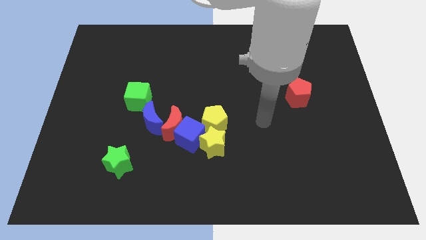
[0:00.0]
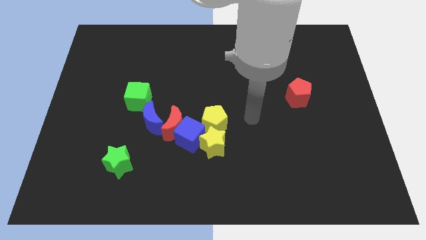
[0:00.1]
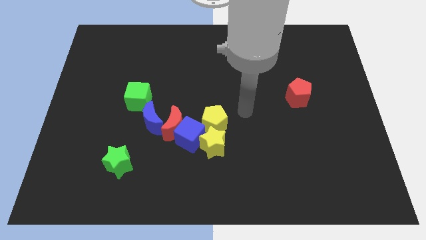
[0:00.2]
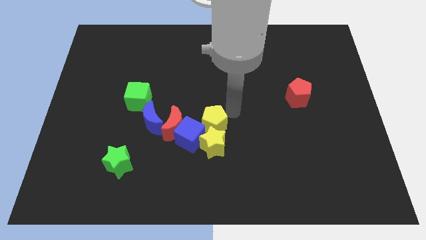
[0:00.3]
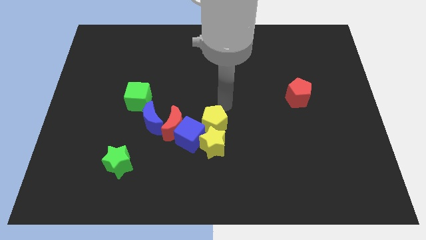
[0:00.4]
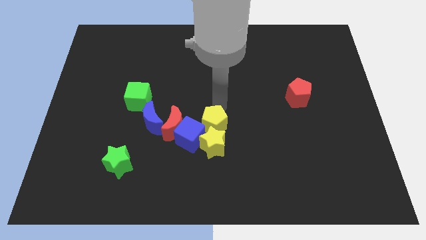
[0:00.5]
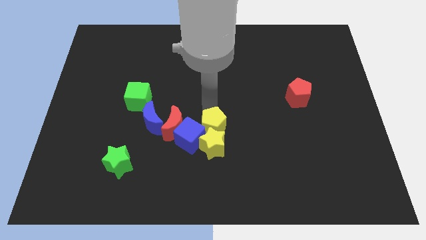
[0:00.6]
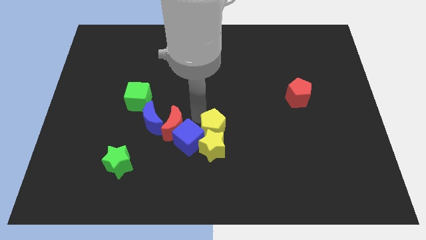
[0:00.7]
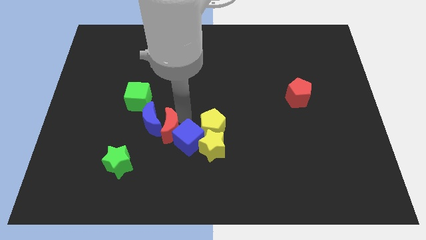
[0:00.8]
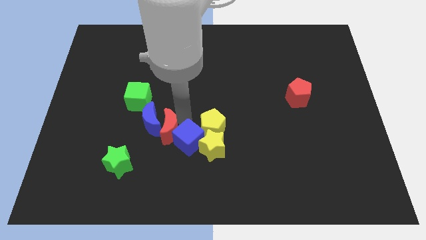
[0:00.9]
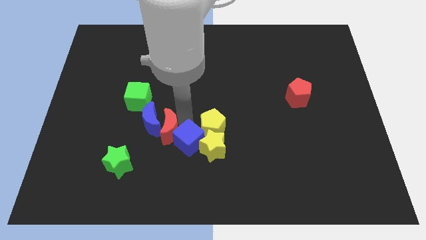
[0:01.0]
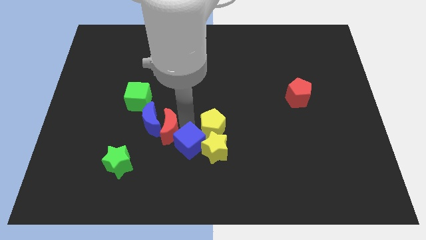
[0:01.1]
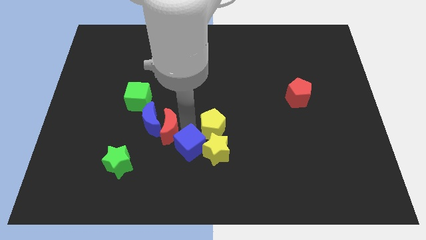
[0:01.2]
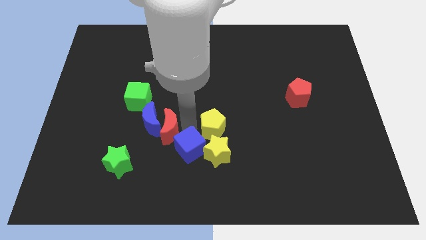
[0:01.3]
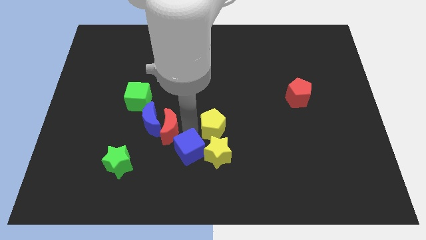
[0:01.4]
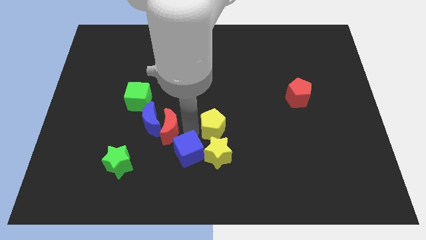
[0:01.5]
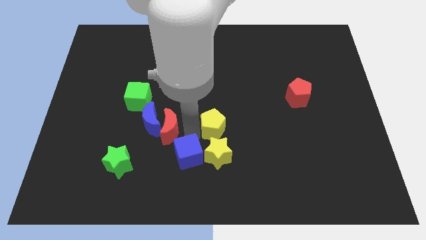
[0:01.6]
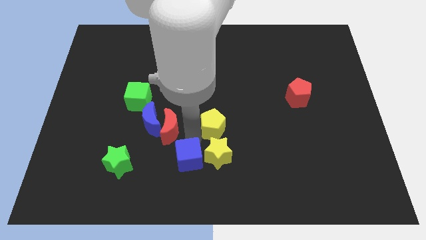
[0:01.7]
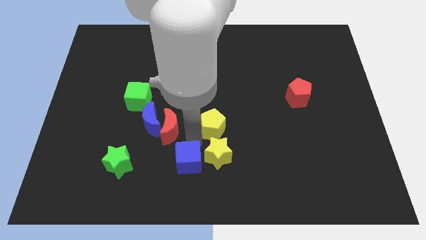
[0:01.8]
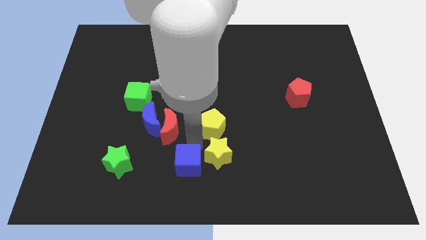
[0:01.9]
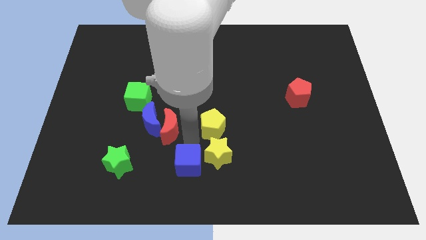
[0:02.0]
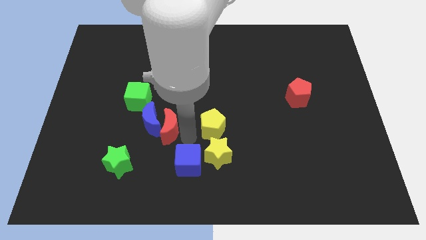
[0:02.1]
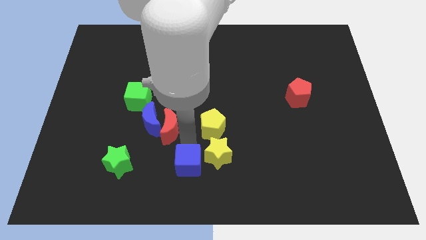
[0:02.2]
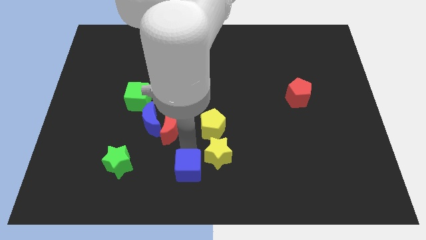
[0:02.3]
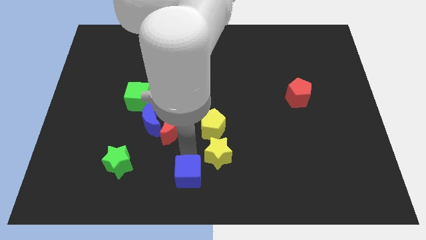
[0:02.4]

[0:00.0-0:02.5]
move the blue cube away from the group

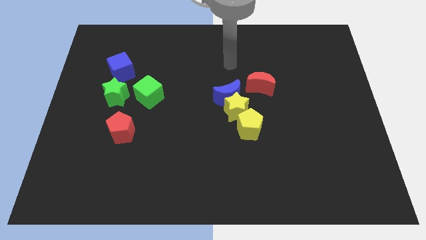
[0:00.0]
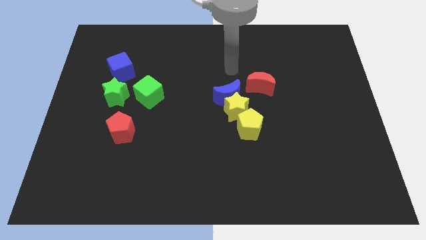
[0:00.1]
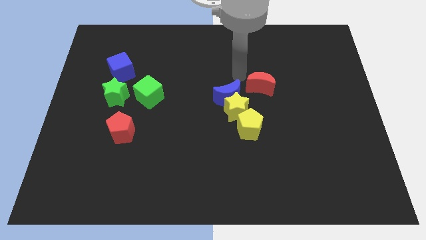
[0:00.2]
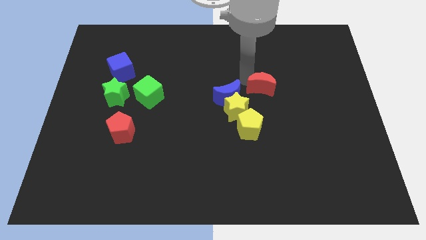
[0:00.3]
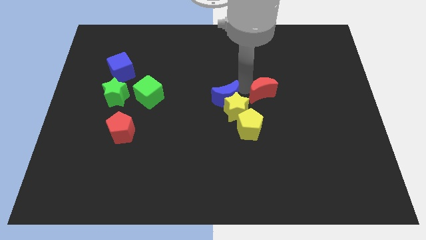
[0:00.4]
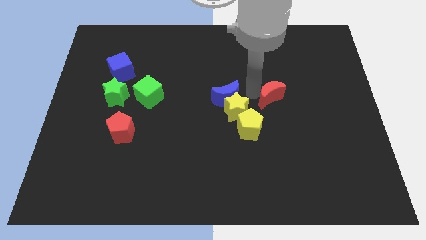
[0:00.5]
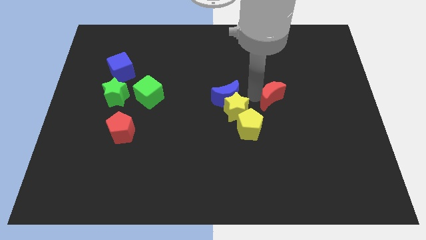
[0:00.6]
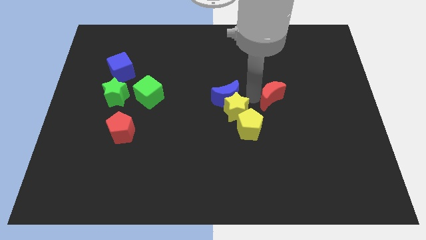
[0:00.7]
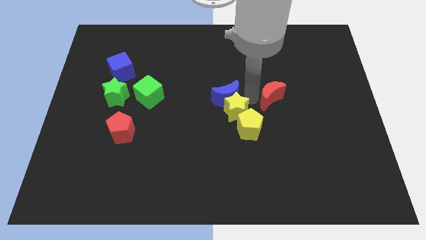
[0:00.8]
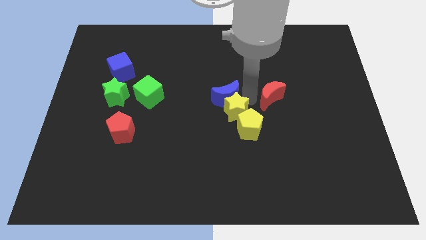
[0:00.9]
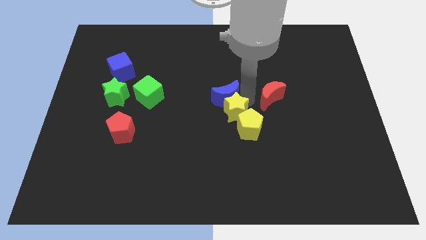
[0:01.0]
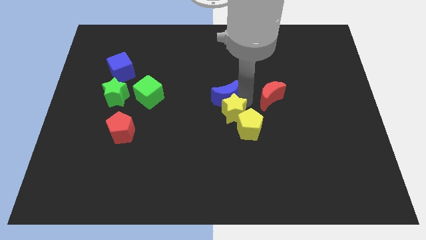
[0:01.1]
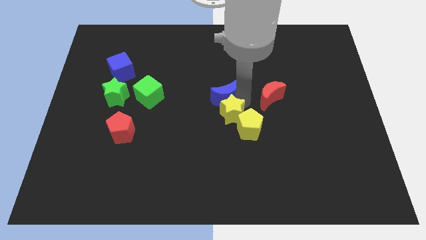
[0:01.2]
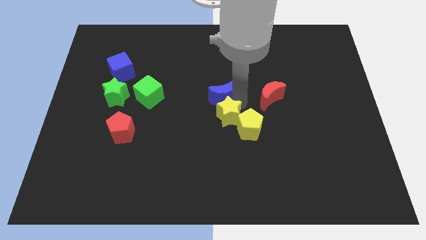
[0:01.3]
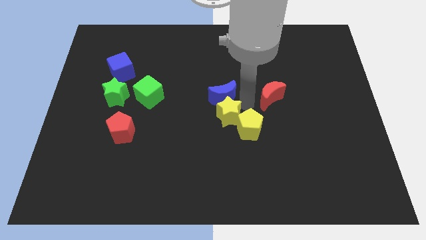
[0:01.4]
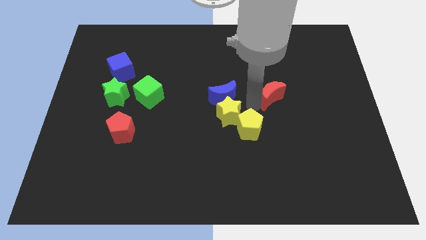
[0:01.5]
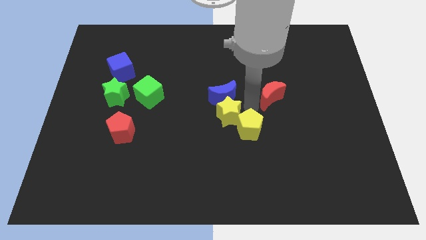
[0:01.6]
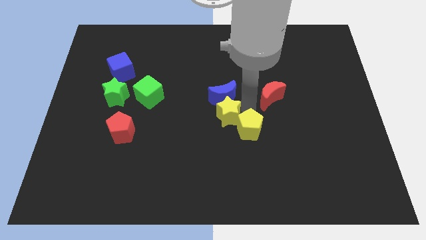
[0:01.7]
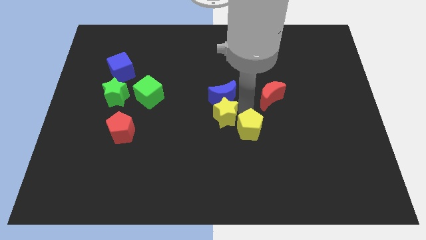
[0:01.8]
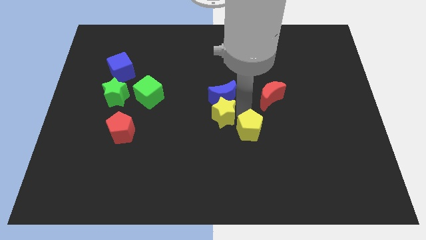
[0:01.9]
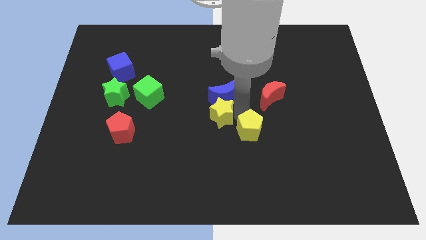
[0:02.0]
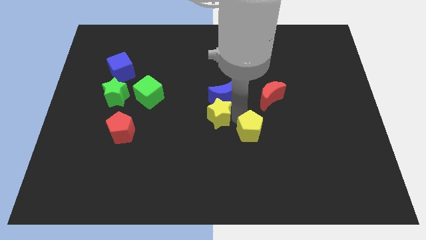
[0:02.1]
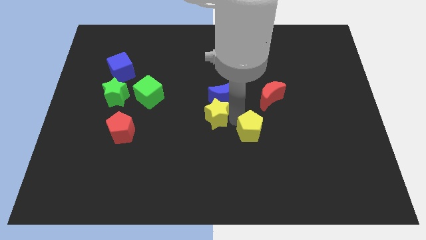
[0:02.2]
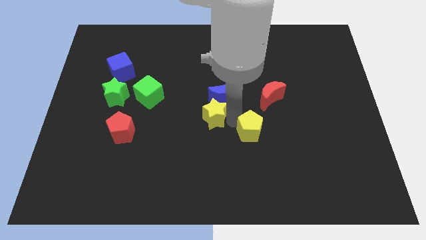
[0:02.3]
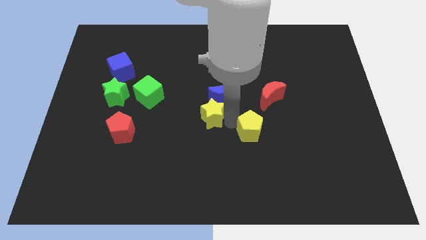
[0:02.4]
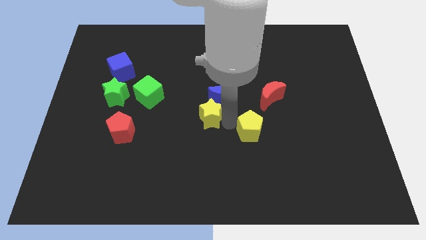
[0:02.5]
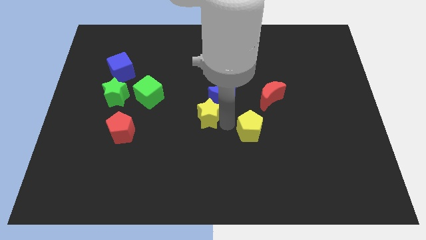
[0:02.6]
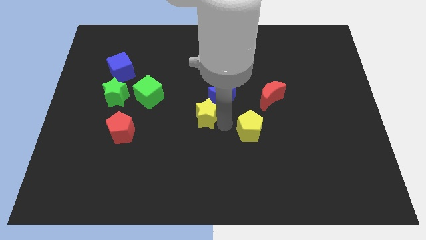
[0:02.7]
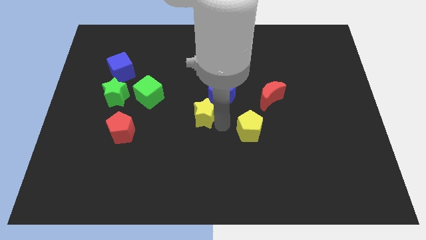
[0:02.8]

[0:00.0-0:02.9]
move the yellow star away from the blue moon, yellow pentagon, and red moon

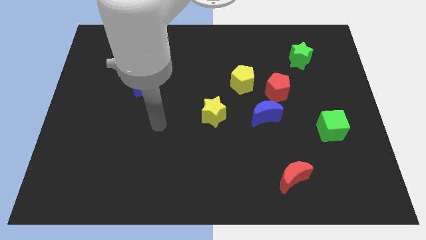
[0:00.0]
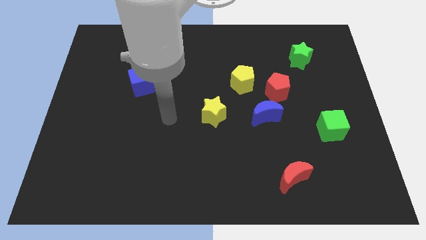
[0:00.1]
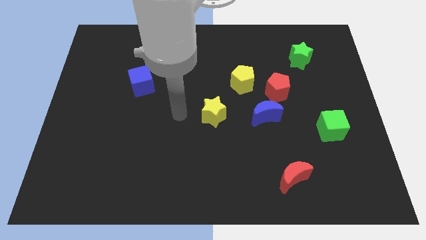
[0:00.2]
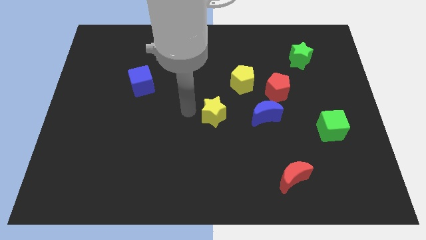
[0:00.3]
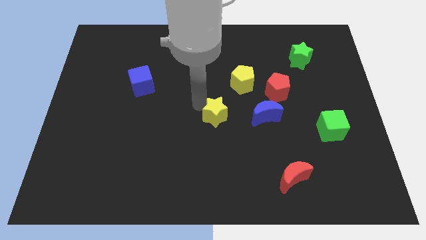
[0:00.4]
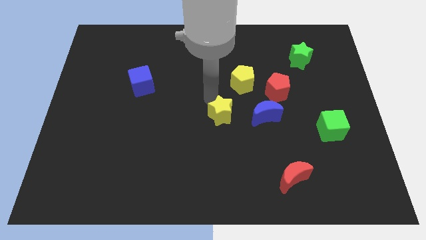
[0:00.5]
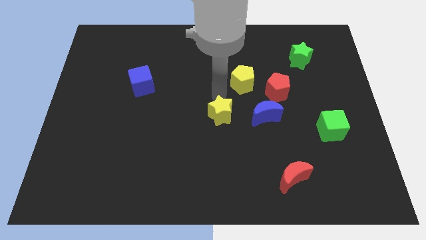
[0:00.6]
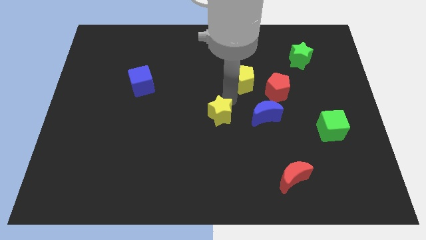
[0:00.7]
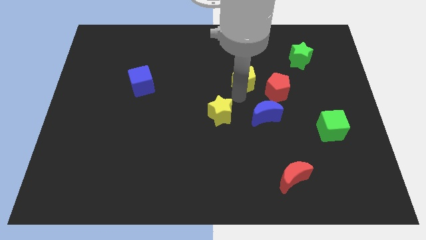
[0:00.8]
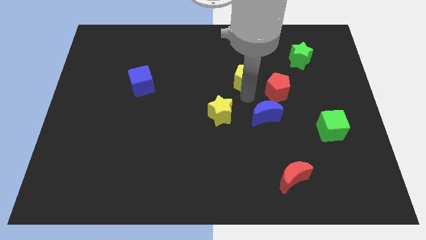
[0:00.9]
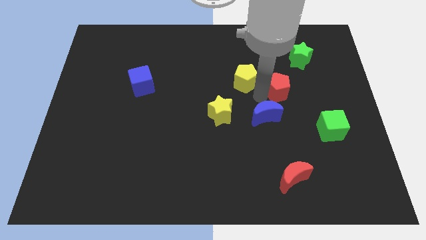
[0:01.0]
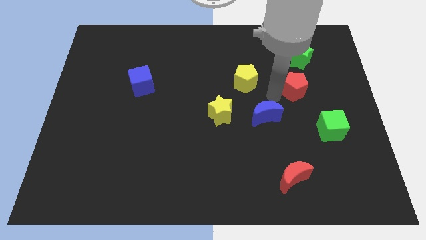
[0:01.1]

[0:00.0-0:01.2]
pull the blue moon apart from the red pentagon

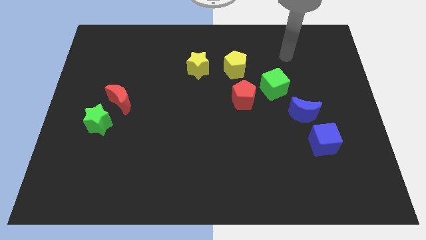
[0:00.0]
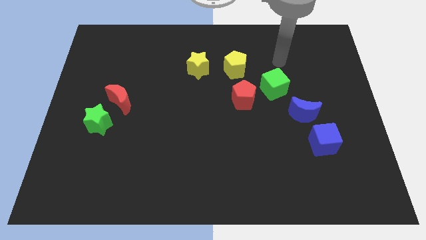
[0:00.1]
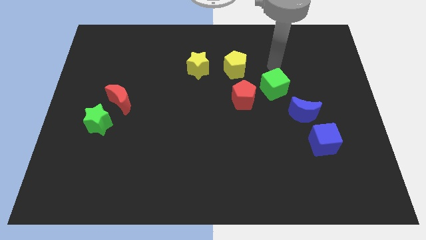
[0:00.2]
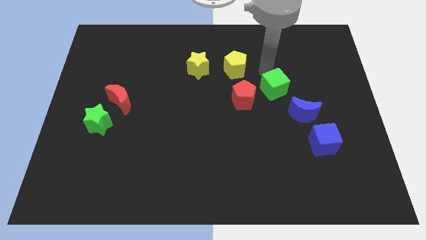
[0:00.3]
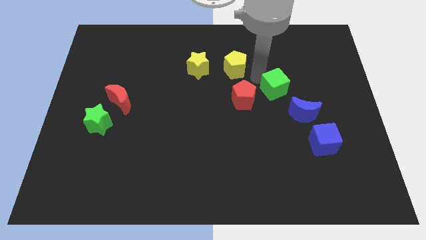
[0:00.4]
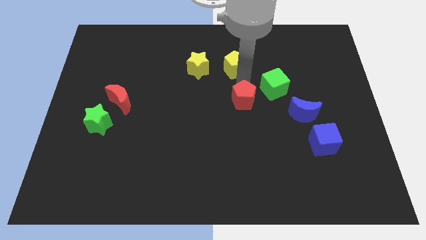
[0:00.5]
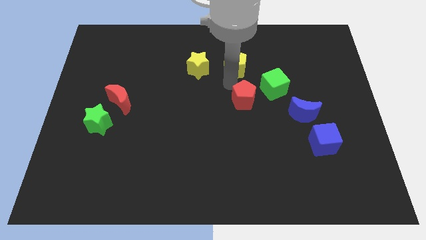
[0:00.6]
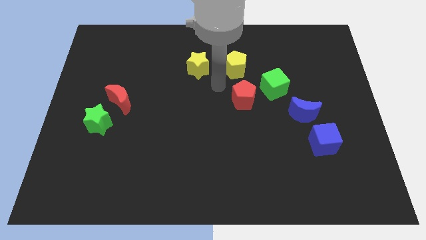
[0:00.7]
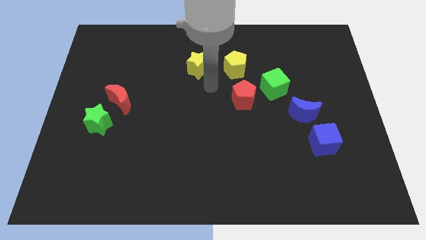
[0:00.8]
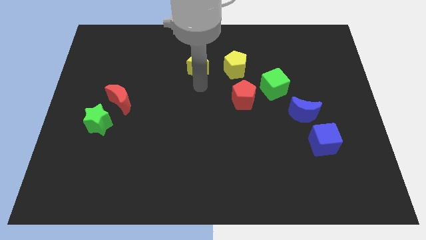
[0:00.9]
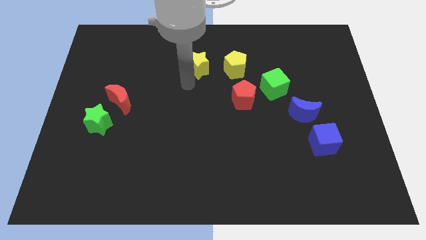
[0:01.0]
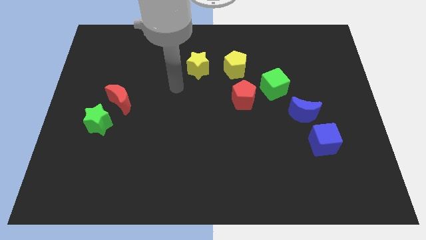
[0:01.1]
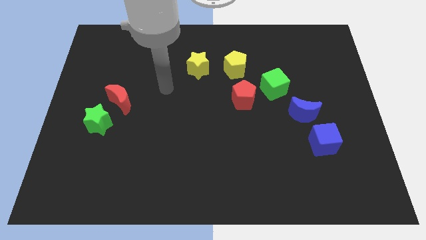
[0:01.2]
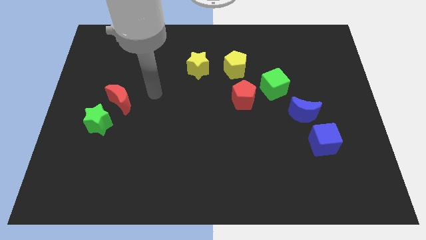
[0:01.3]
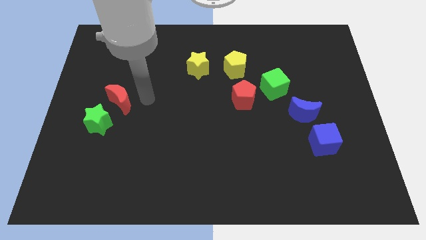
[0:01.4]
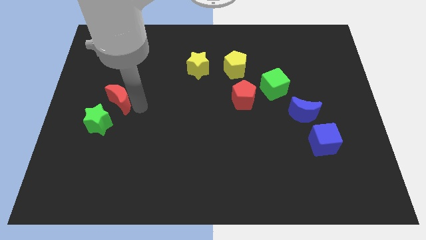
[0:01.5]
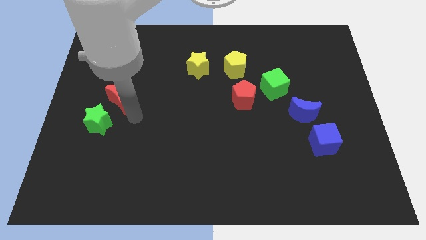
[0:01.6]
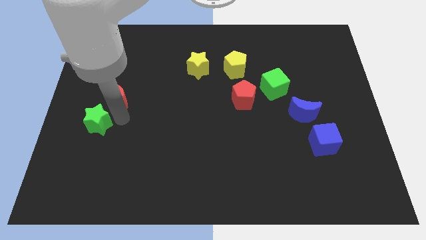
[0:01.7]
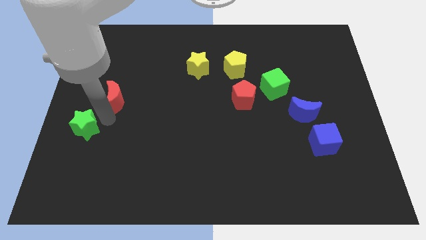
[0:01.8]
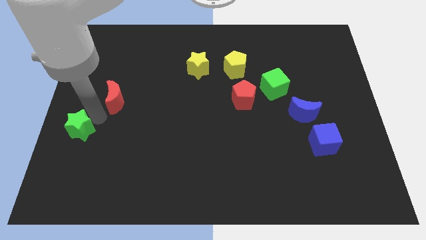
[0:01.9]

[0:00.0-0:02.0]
move the red moon away from the green star

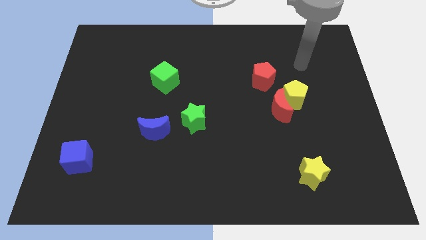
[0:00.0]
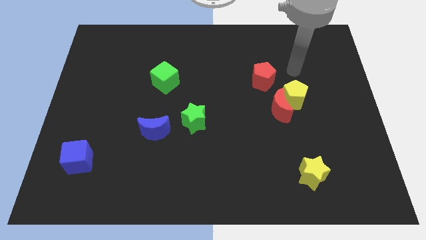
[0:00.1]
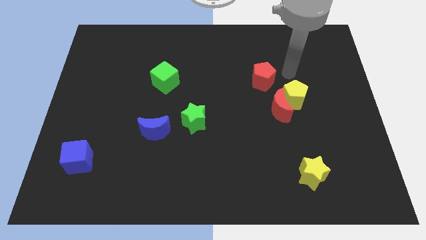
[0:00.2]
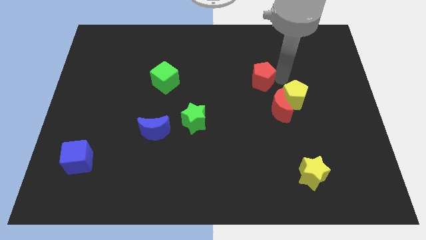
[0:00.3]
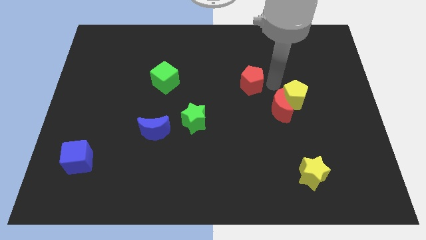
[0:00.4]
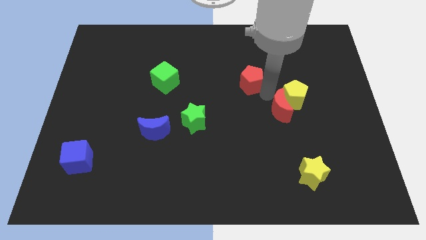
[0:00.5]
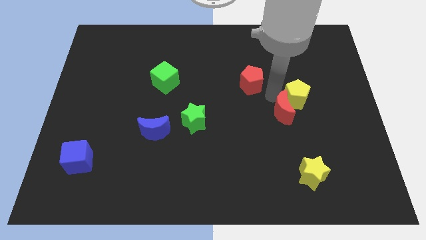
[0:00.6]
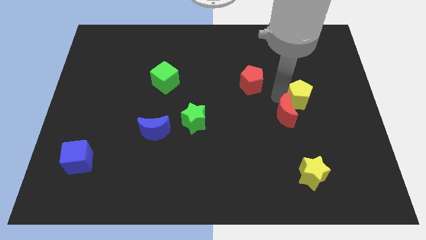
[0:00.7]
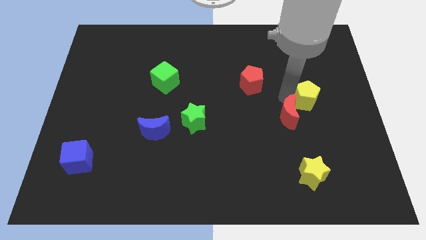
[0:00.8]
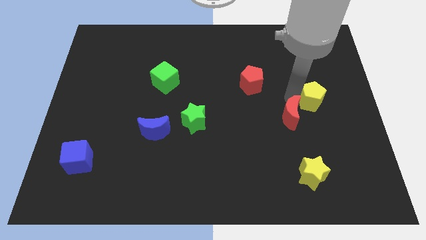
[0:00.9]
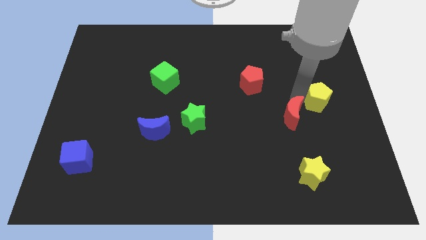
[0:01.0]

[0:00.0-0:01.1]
separate the yellow pentagon from the red moon and red pentagon
